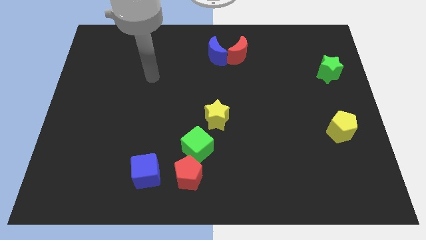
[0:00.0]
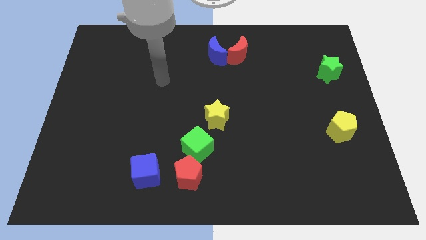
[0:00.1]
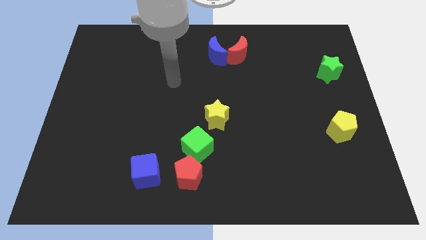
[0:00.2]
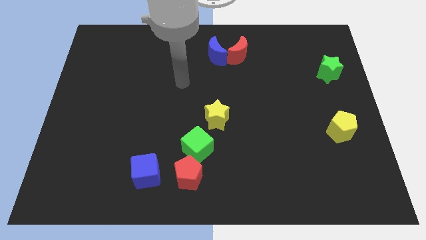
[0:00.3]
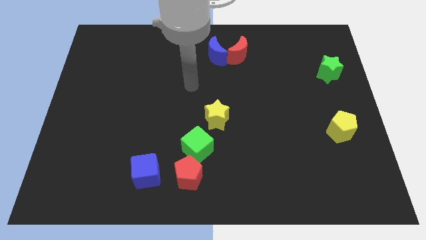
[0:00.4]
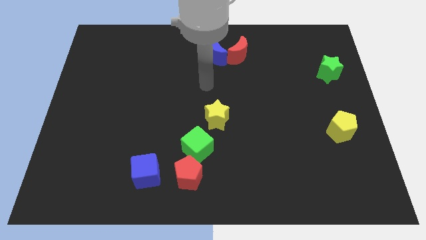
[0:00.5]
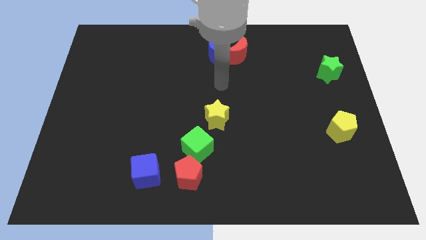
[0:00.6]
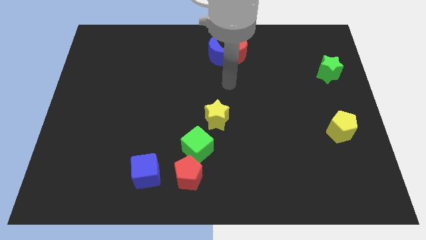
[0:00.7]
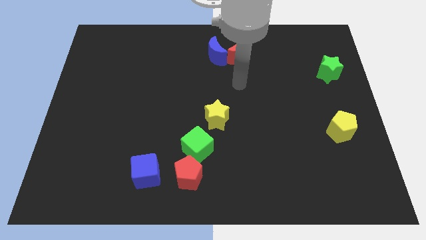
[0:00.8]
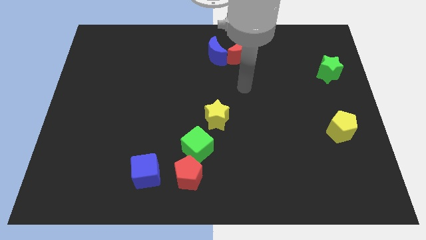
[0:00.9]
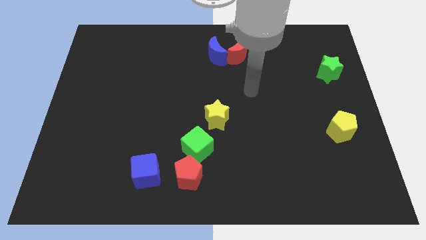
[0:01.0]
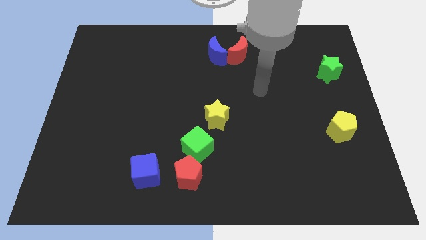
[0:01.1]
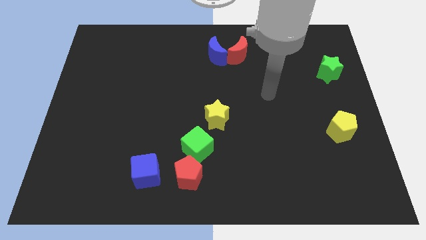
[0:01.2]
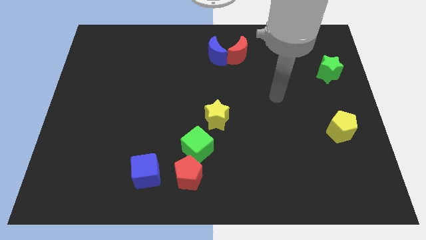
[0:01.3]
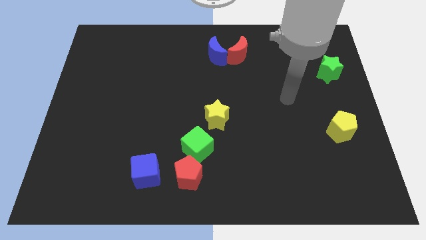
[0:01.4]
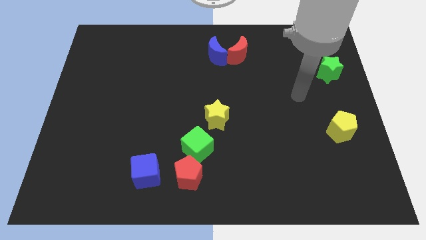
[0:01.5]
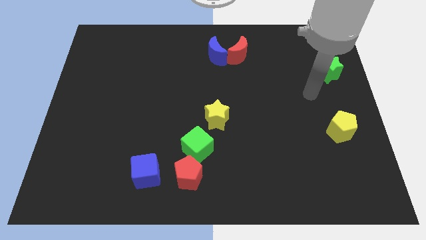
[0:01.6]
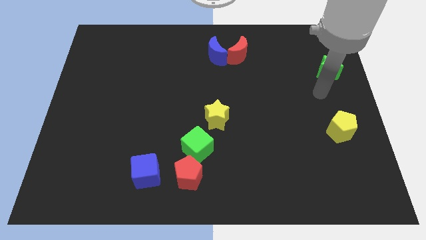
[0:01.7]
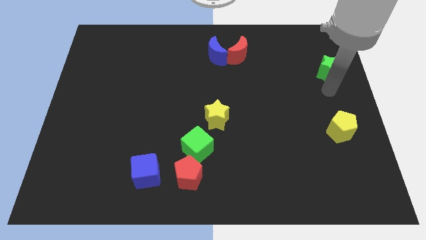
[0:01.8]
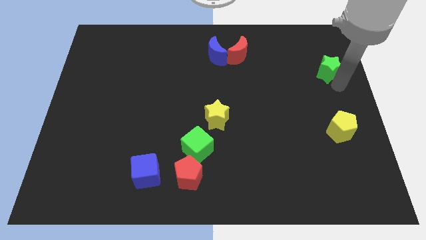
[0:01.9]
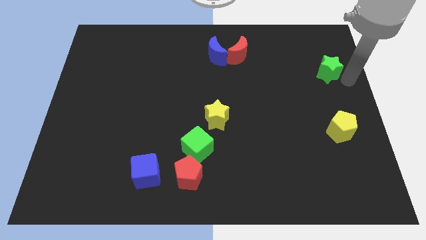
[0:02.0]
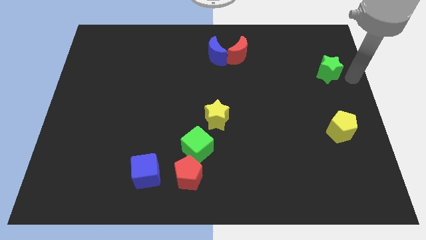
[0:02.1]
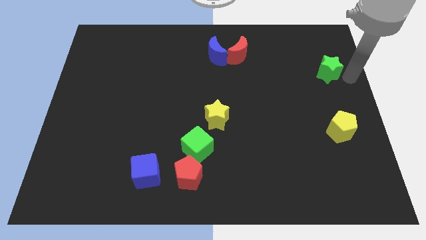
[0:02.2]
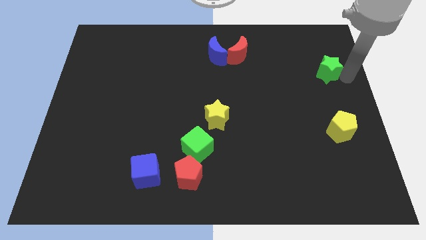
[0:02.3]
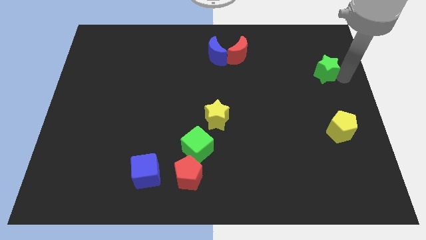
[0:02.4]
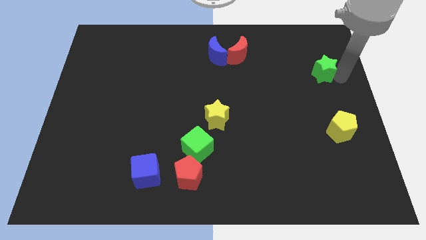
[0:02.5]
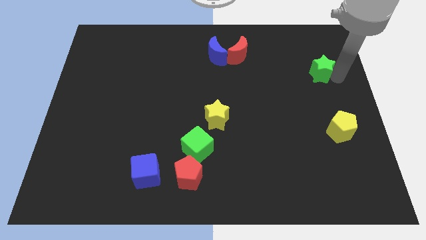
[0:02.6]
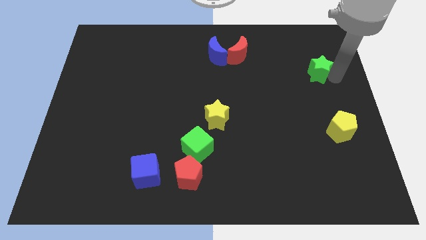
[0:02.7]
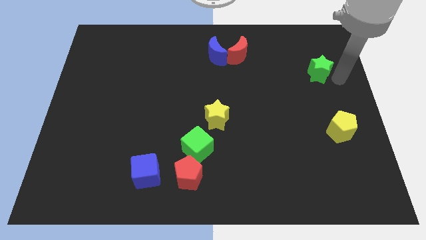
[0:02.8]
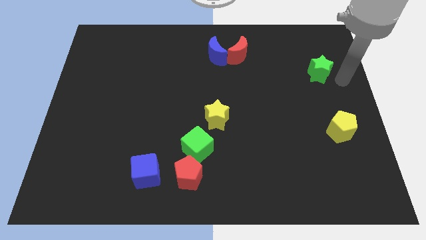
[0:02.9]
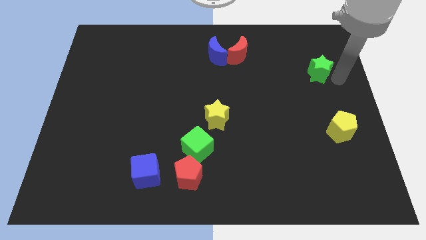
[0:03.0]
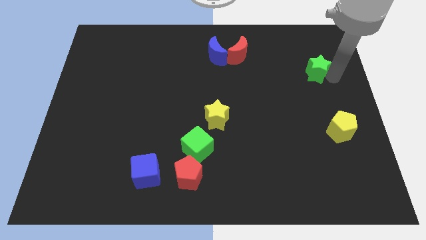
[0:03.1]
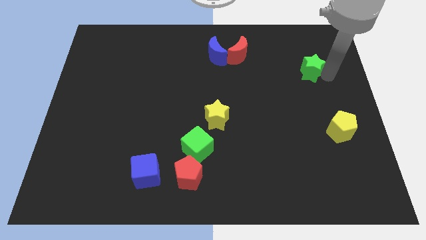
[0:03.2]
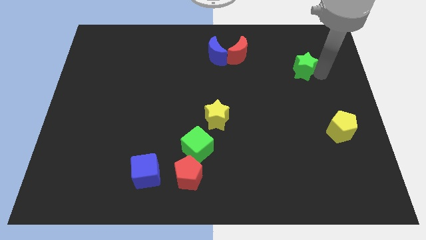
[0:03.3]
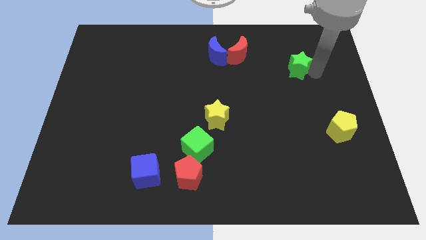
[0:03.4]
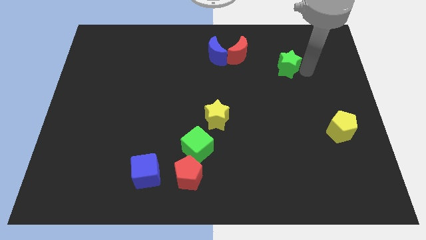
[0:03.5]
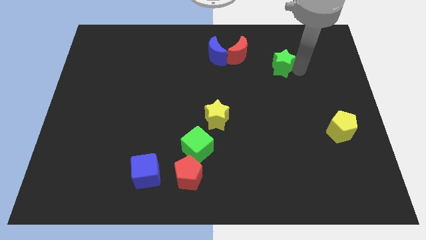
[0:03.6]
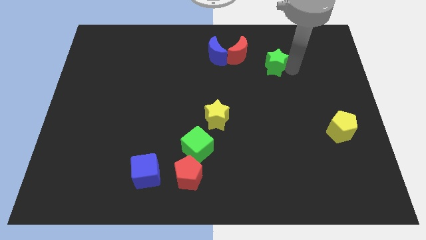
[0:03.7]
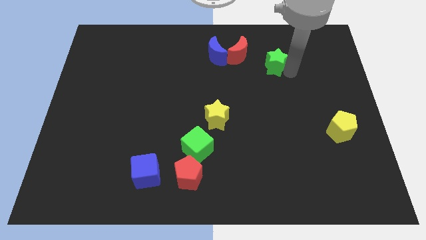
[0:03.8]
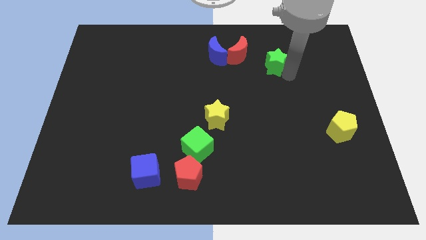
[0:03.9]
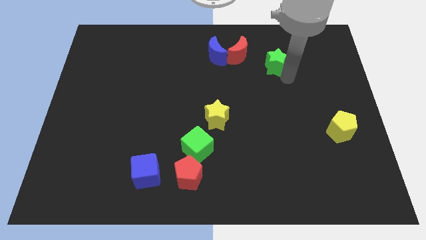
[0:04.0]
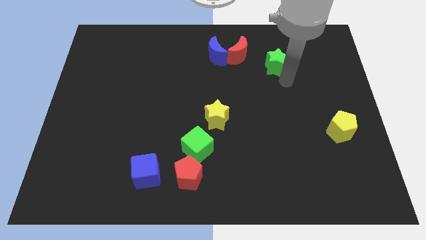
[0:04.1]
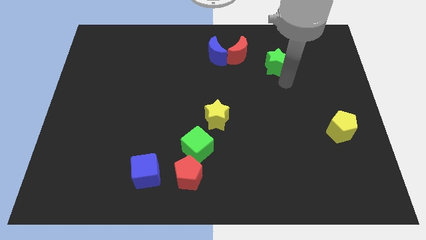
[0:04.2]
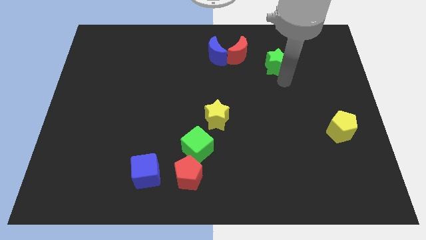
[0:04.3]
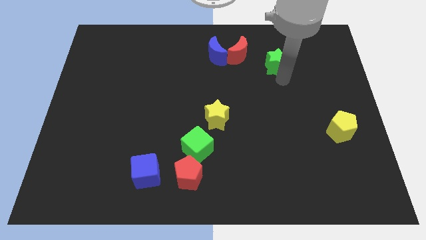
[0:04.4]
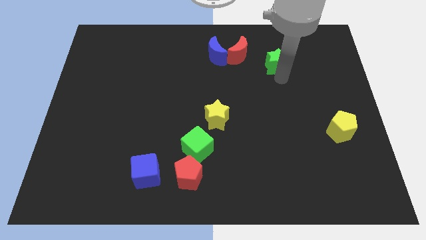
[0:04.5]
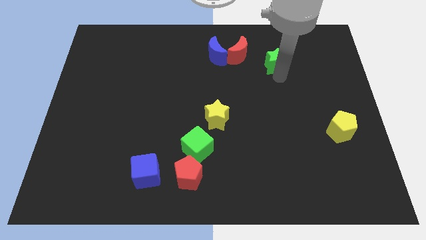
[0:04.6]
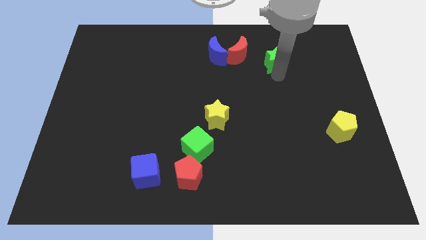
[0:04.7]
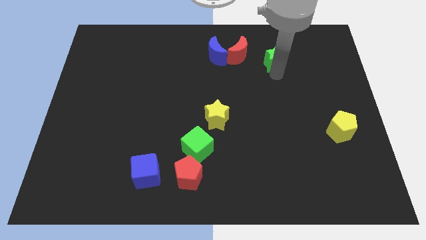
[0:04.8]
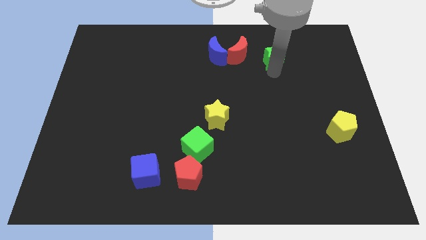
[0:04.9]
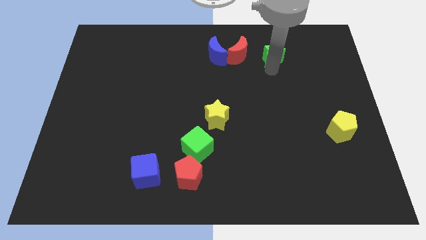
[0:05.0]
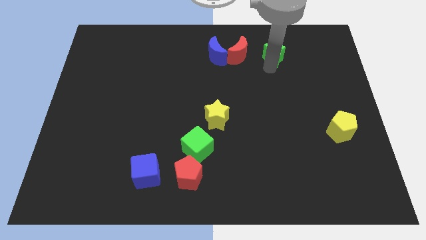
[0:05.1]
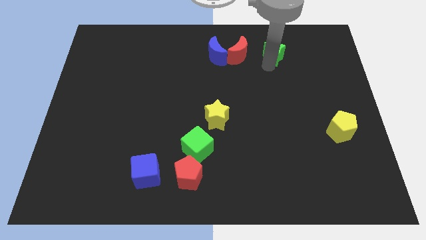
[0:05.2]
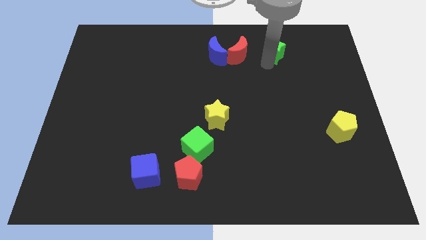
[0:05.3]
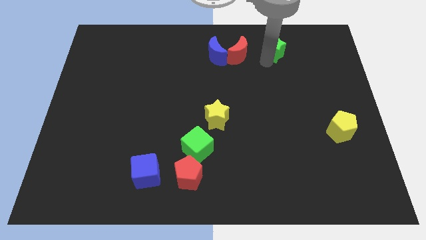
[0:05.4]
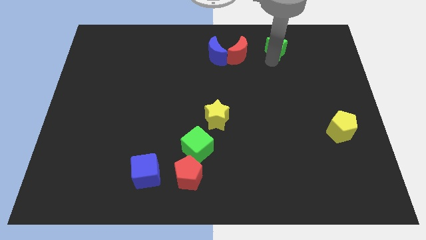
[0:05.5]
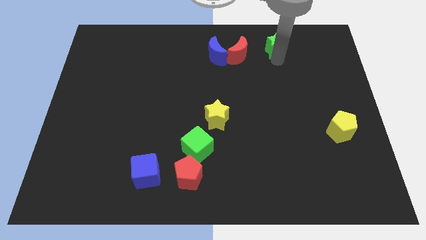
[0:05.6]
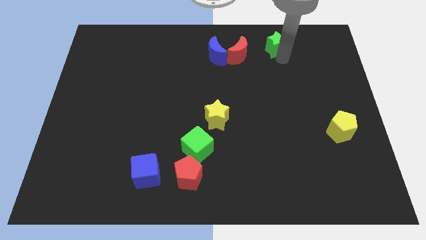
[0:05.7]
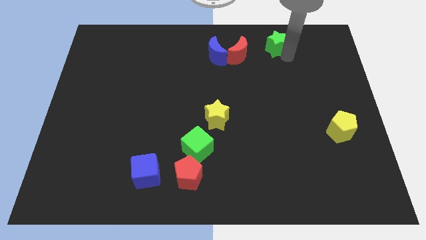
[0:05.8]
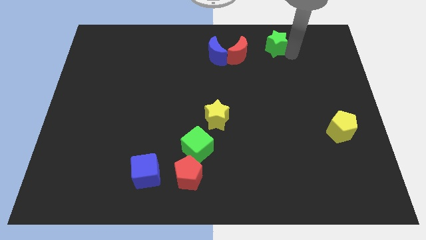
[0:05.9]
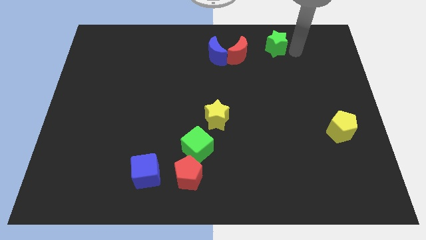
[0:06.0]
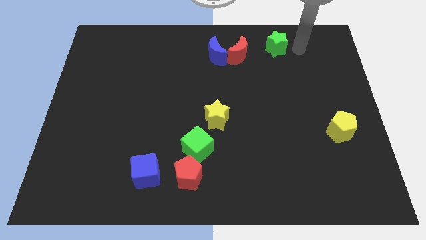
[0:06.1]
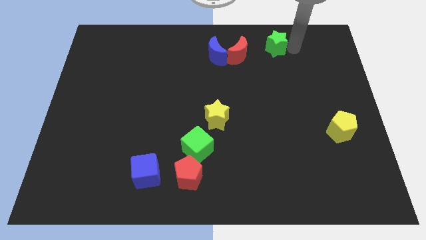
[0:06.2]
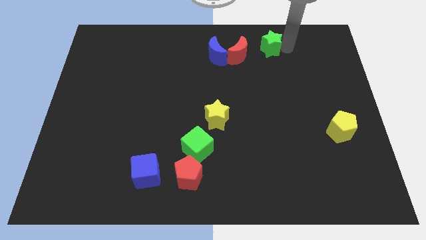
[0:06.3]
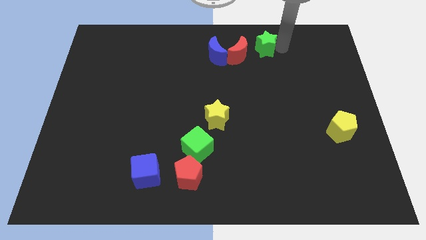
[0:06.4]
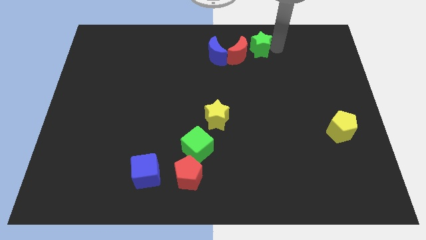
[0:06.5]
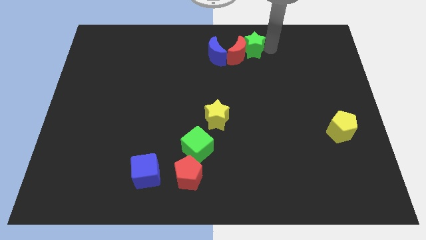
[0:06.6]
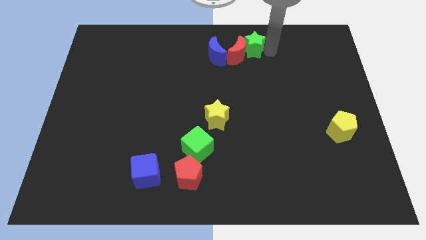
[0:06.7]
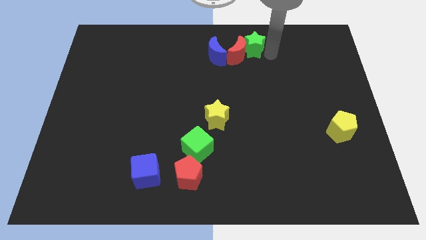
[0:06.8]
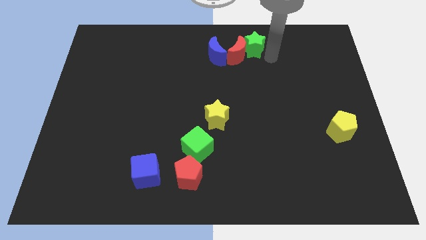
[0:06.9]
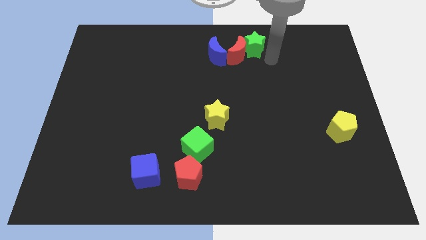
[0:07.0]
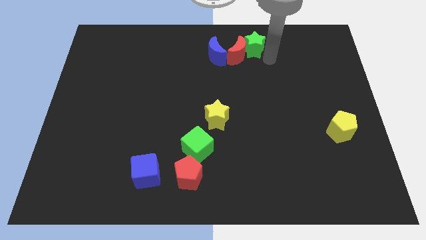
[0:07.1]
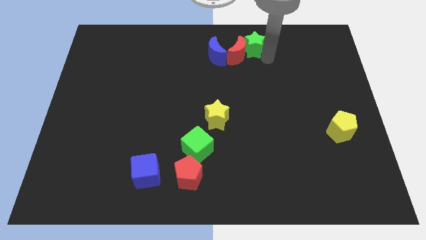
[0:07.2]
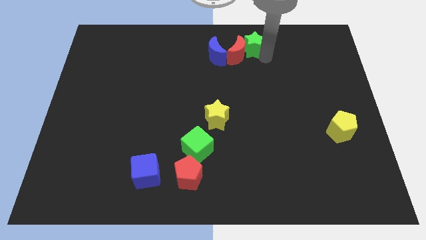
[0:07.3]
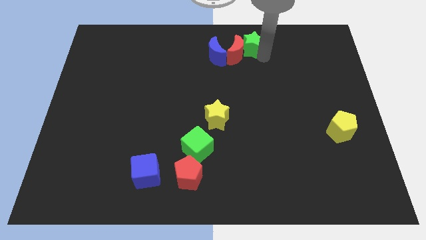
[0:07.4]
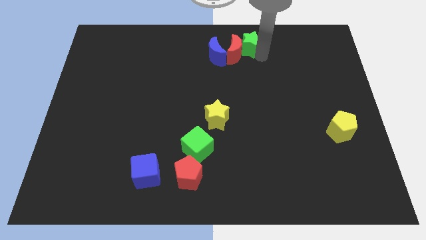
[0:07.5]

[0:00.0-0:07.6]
put the green star to the top side
